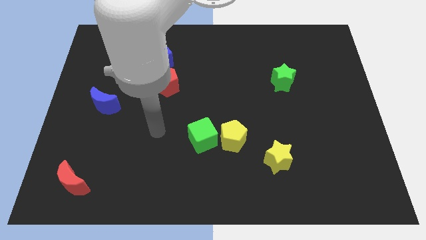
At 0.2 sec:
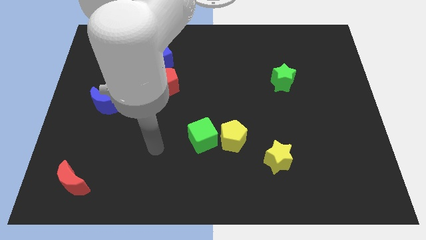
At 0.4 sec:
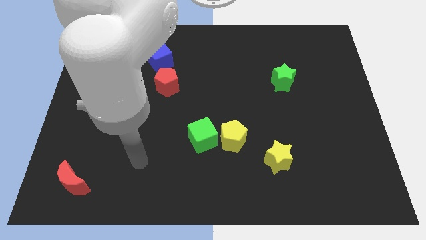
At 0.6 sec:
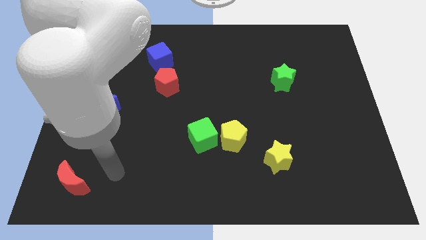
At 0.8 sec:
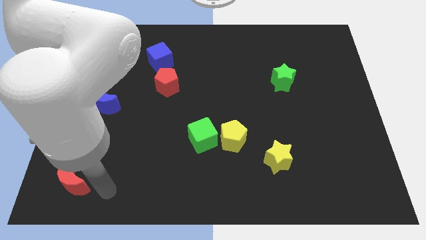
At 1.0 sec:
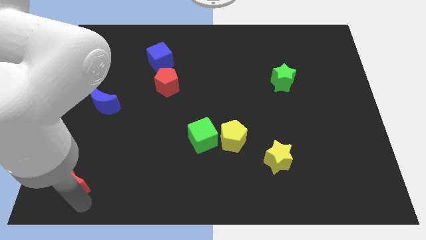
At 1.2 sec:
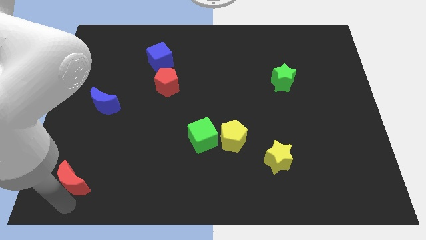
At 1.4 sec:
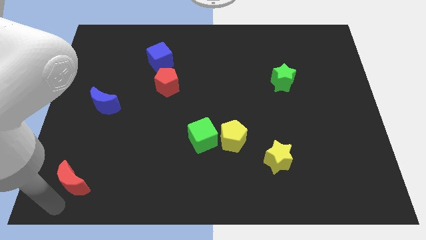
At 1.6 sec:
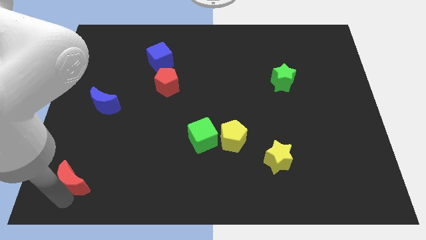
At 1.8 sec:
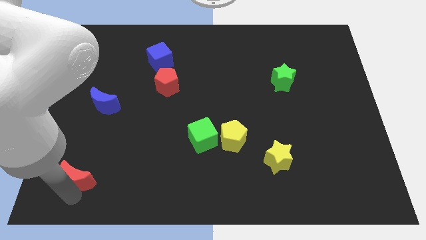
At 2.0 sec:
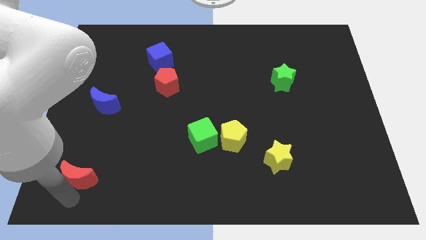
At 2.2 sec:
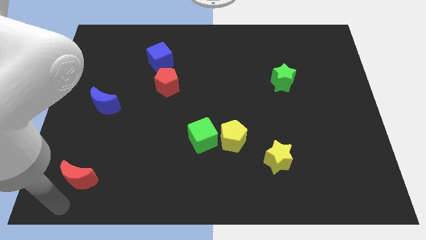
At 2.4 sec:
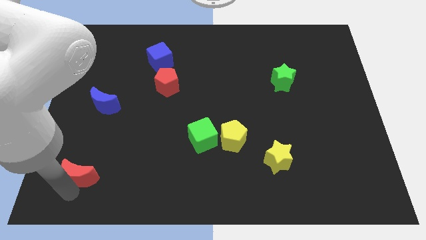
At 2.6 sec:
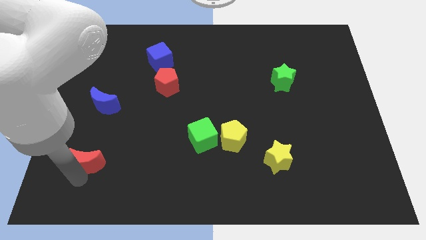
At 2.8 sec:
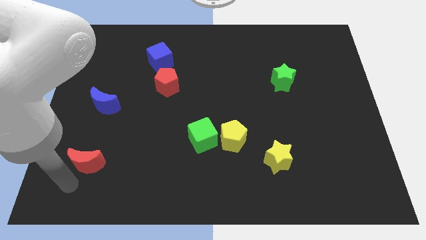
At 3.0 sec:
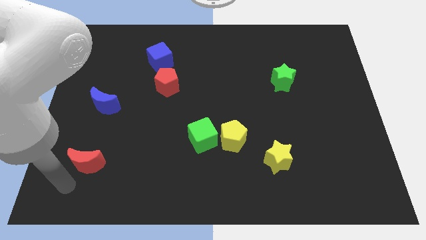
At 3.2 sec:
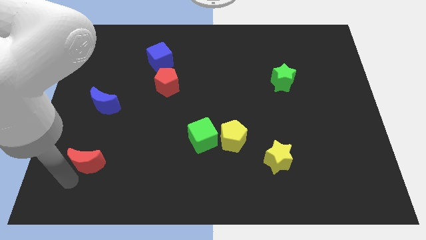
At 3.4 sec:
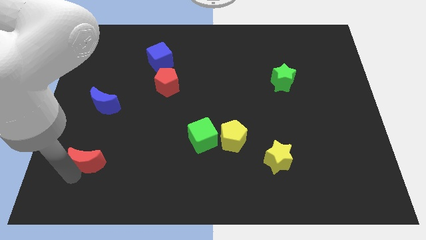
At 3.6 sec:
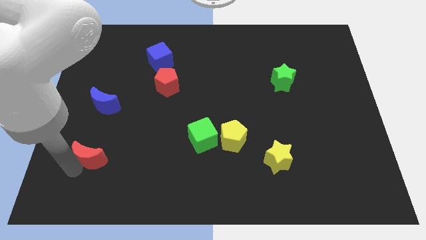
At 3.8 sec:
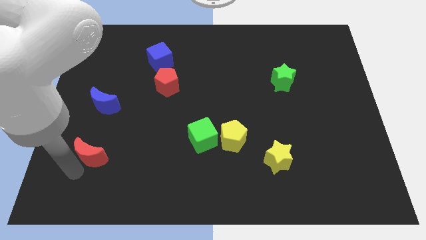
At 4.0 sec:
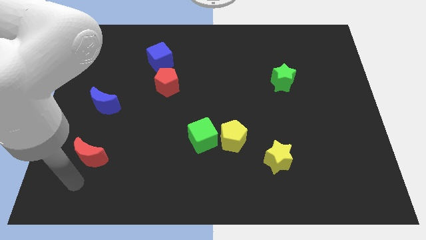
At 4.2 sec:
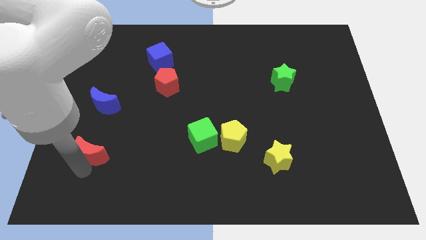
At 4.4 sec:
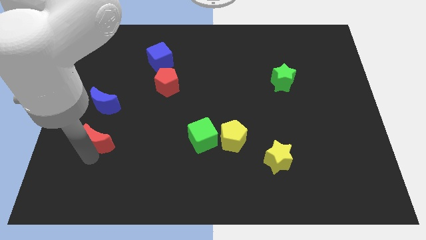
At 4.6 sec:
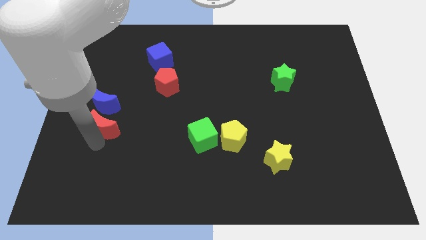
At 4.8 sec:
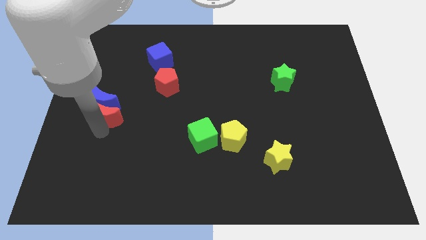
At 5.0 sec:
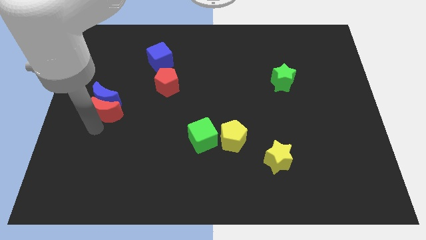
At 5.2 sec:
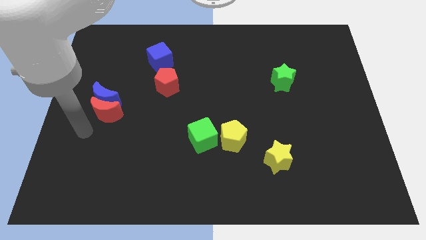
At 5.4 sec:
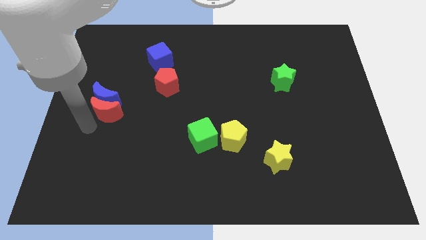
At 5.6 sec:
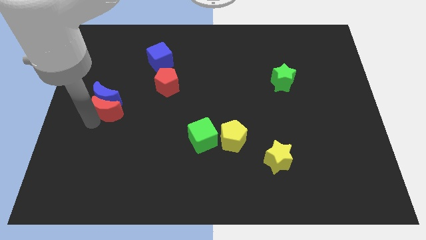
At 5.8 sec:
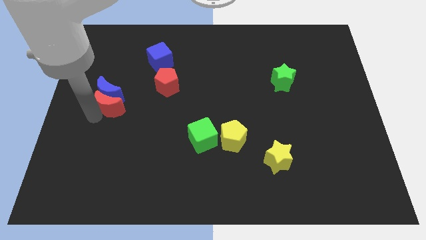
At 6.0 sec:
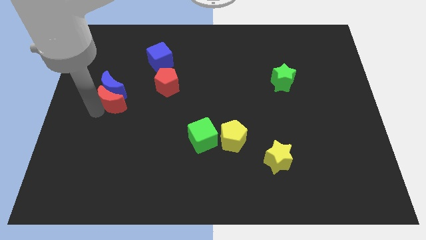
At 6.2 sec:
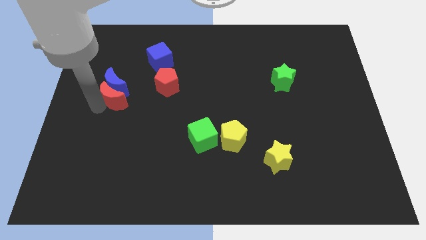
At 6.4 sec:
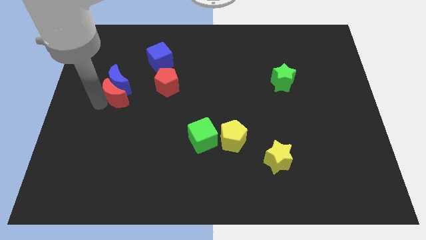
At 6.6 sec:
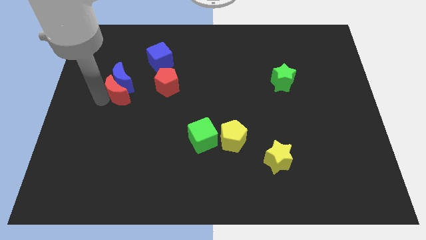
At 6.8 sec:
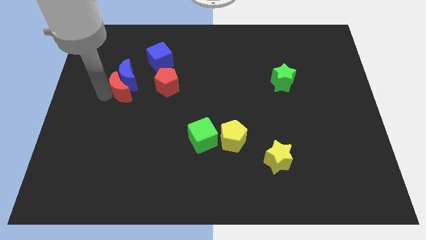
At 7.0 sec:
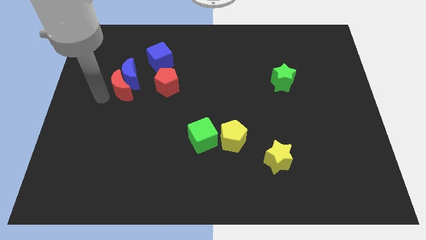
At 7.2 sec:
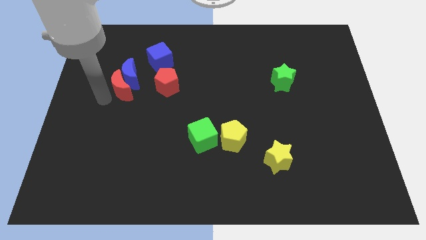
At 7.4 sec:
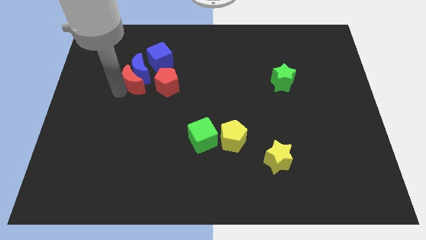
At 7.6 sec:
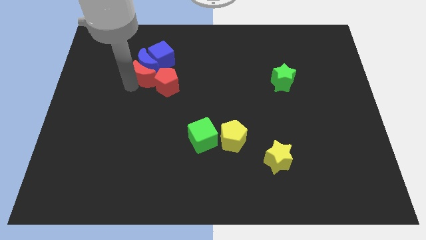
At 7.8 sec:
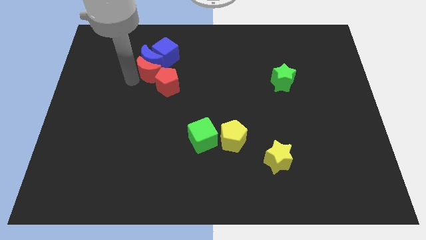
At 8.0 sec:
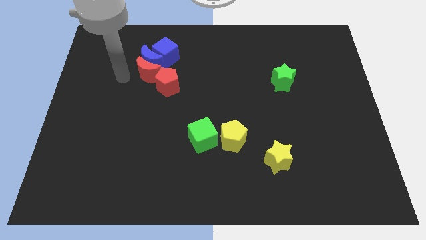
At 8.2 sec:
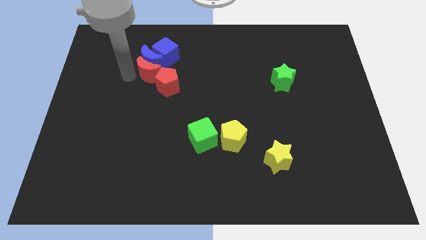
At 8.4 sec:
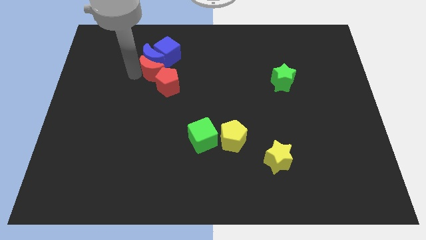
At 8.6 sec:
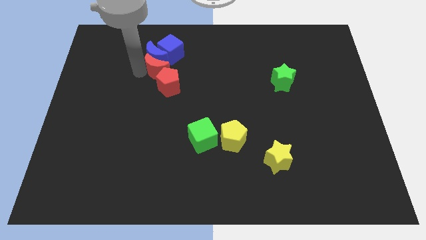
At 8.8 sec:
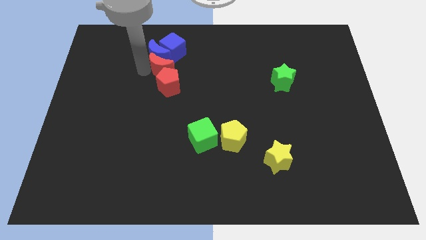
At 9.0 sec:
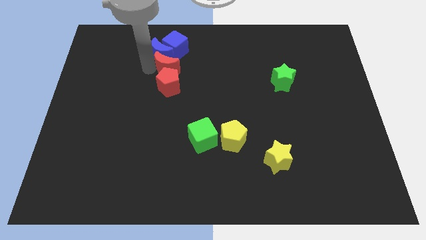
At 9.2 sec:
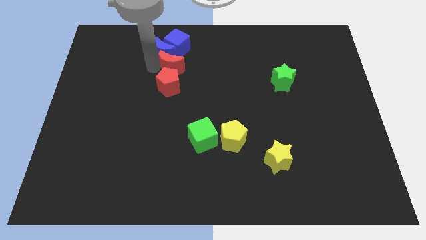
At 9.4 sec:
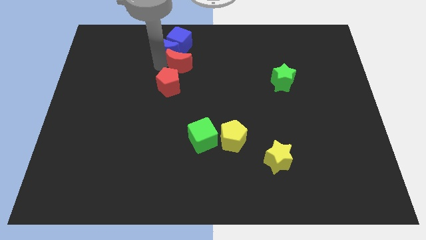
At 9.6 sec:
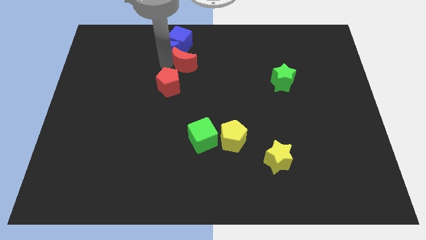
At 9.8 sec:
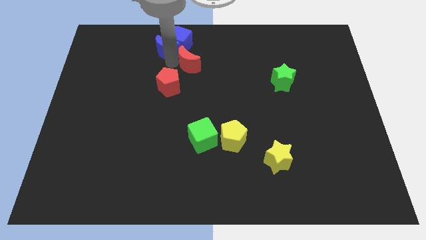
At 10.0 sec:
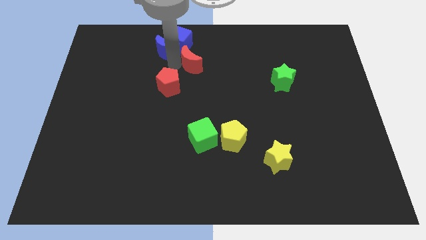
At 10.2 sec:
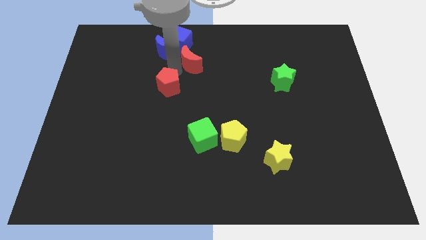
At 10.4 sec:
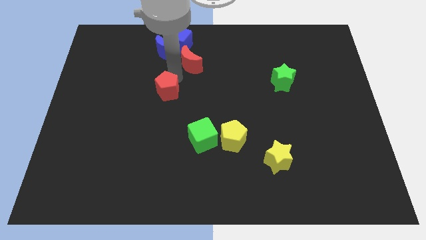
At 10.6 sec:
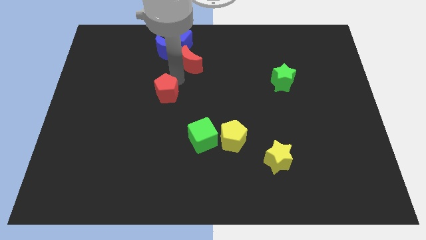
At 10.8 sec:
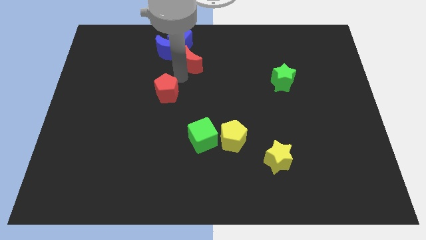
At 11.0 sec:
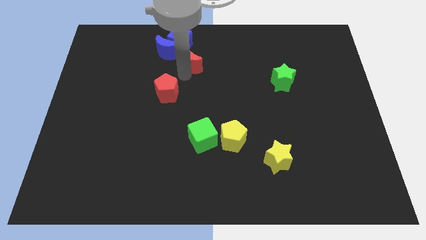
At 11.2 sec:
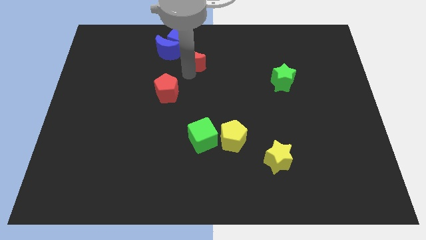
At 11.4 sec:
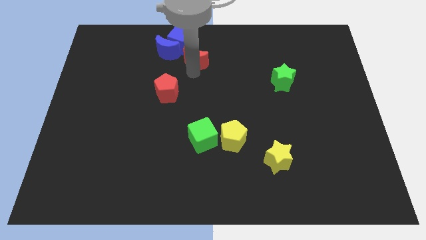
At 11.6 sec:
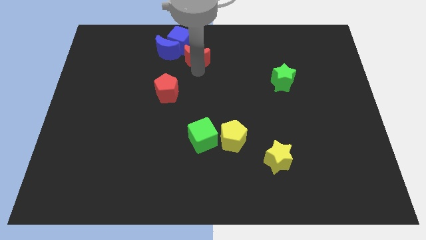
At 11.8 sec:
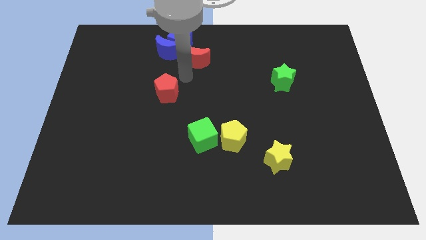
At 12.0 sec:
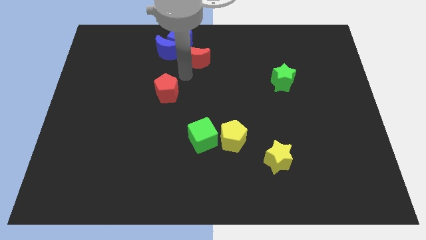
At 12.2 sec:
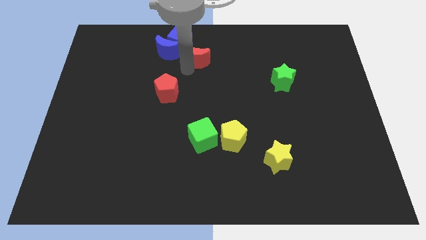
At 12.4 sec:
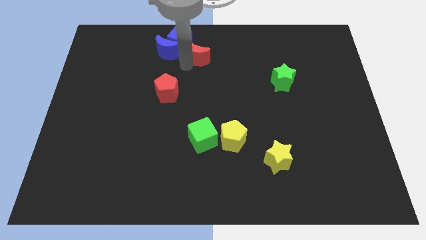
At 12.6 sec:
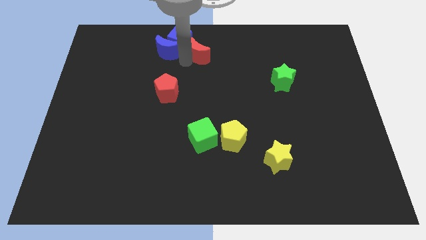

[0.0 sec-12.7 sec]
put the red moon to the top
